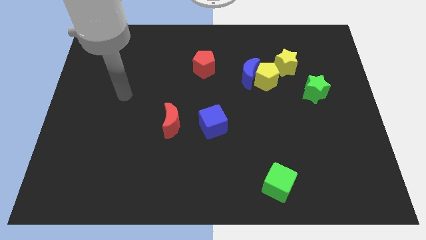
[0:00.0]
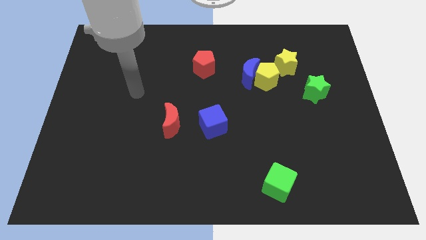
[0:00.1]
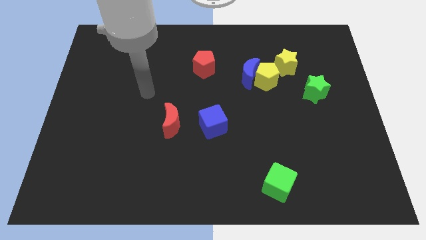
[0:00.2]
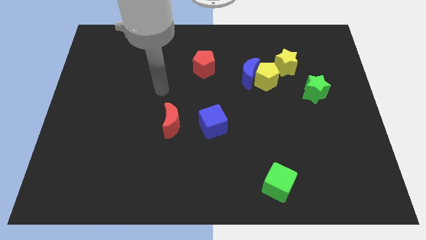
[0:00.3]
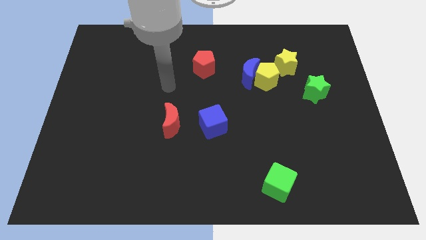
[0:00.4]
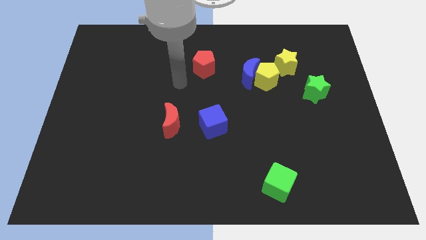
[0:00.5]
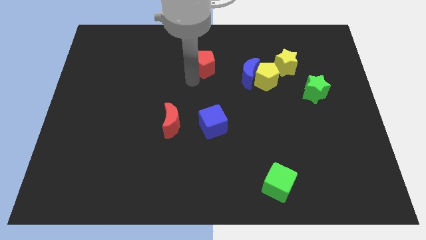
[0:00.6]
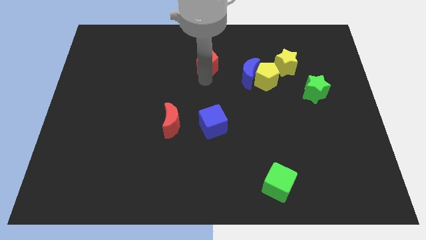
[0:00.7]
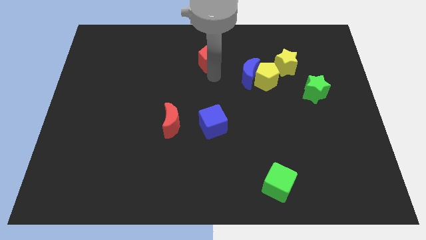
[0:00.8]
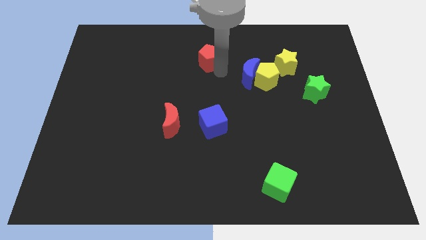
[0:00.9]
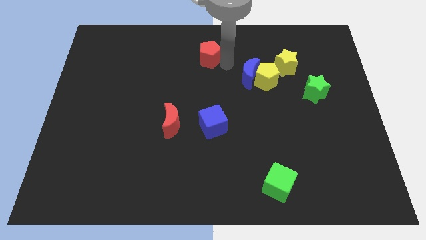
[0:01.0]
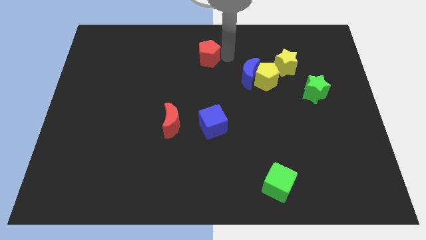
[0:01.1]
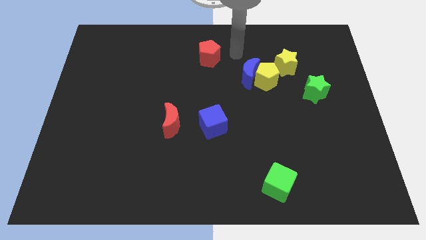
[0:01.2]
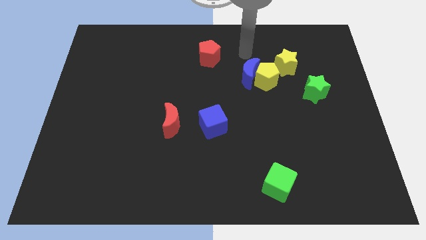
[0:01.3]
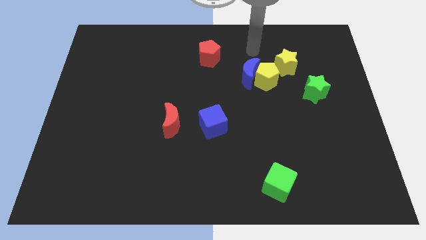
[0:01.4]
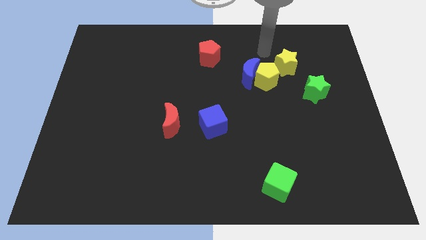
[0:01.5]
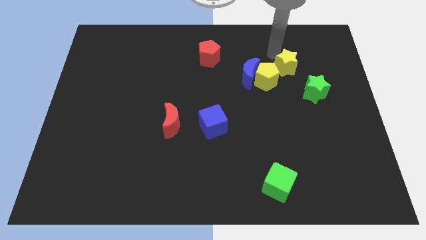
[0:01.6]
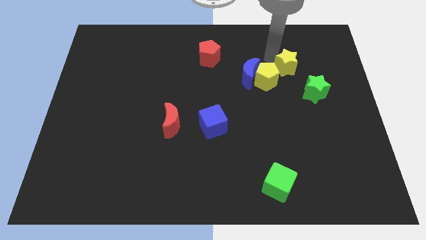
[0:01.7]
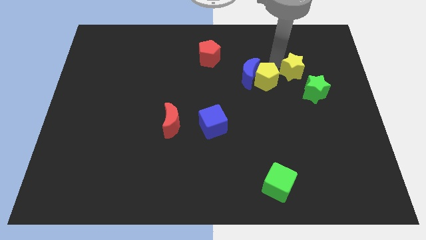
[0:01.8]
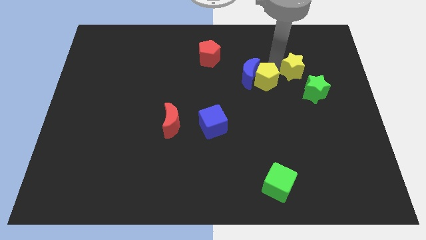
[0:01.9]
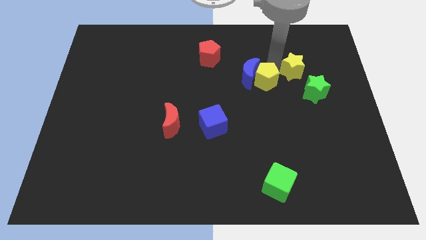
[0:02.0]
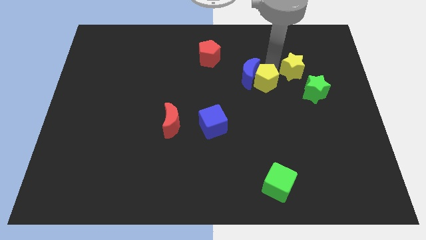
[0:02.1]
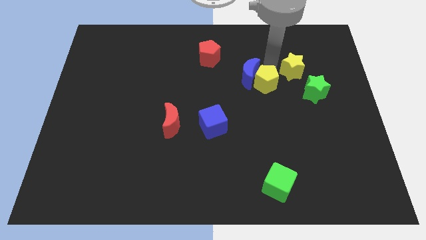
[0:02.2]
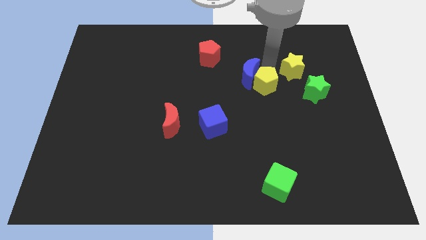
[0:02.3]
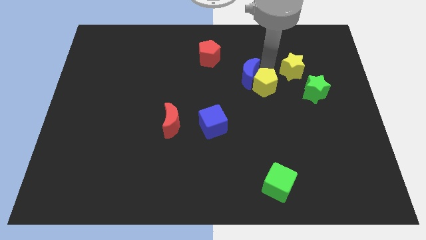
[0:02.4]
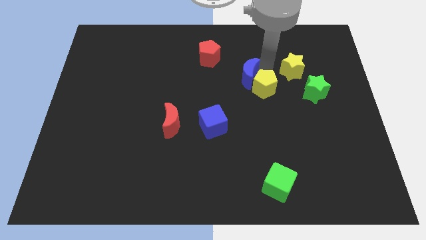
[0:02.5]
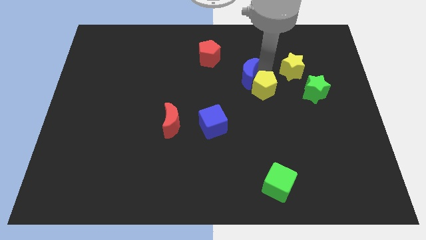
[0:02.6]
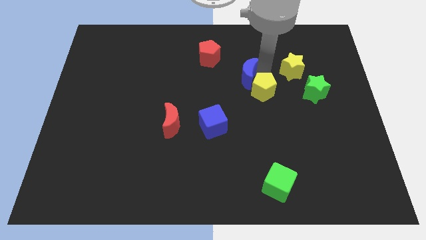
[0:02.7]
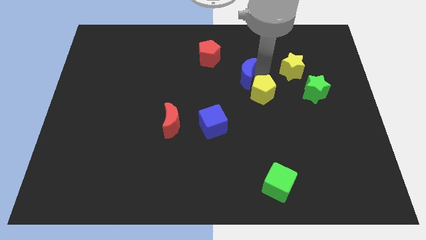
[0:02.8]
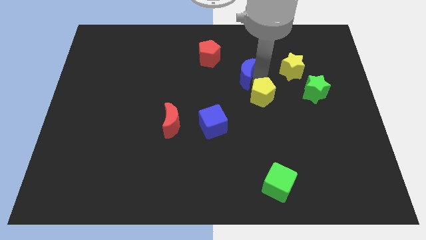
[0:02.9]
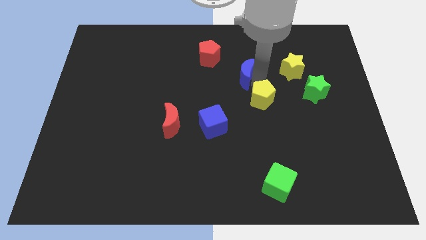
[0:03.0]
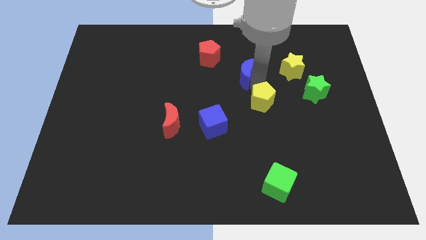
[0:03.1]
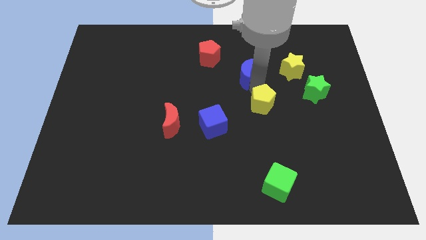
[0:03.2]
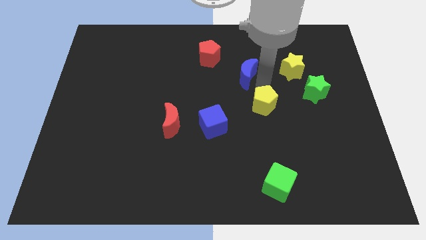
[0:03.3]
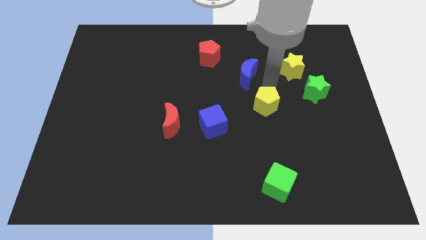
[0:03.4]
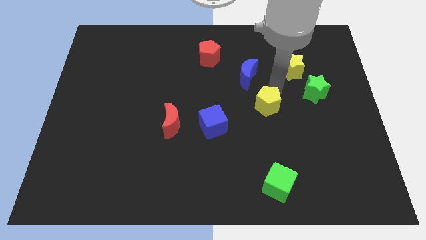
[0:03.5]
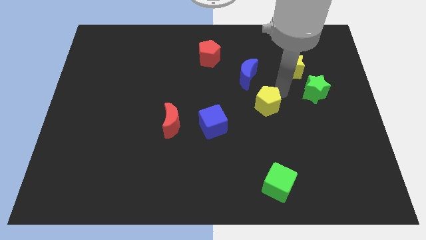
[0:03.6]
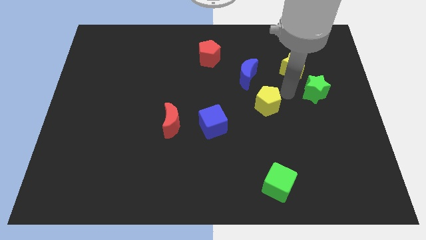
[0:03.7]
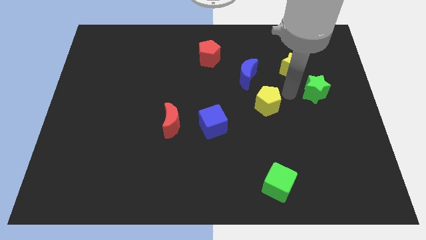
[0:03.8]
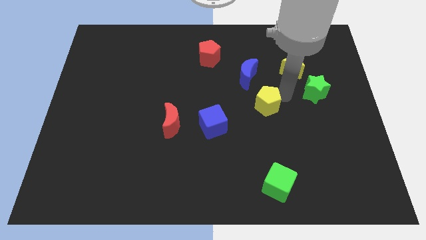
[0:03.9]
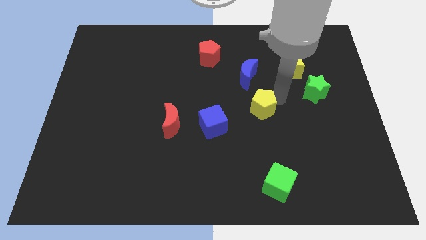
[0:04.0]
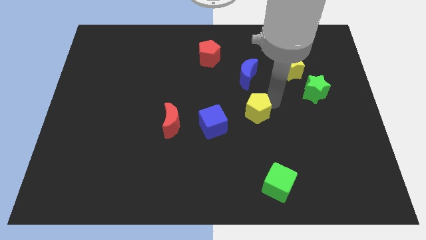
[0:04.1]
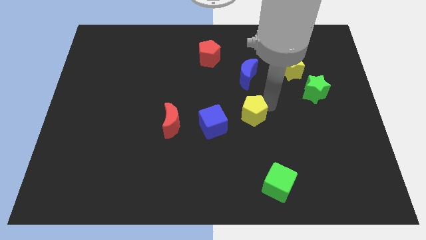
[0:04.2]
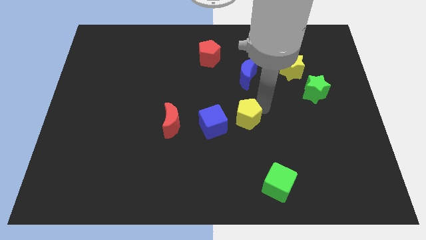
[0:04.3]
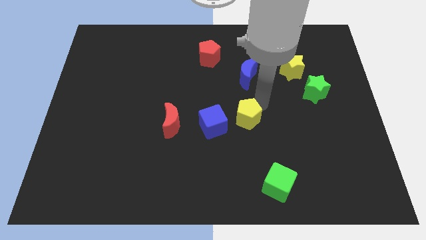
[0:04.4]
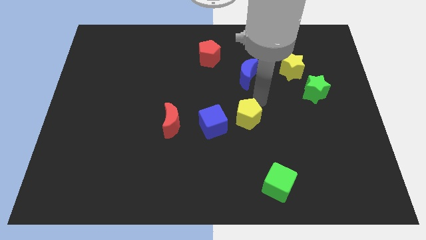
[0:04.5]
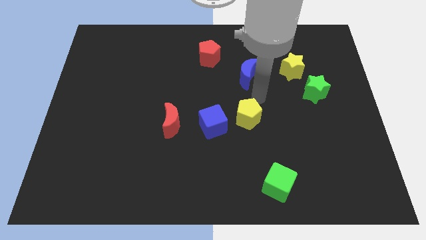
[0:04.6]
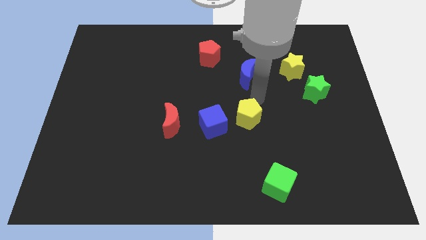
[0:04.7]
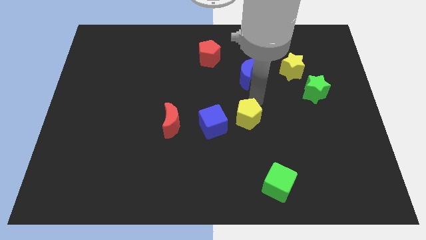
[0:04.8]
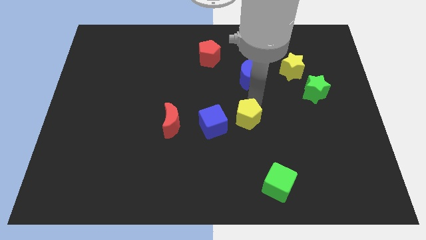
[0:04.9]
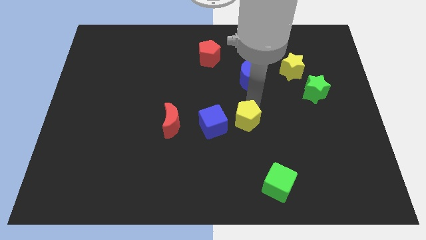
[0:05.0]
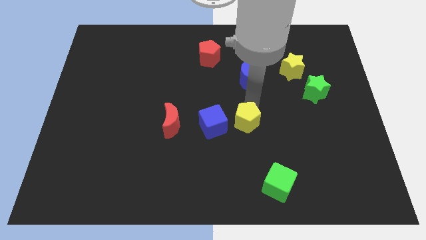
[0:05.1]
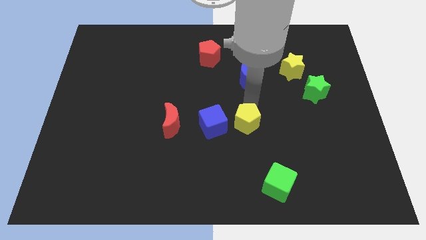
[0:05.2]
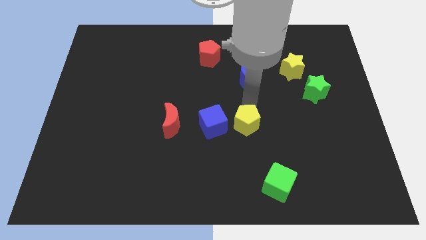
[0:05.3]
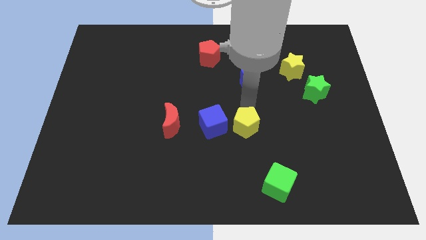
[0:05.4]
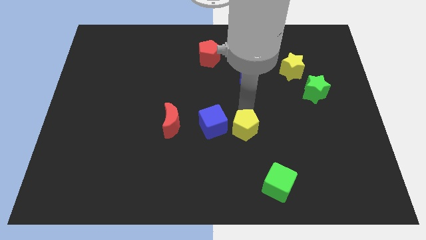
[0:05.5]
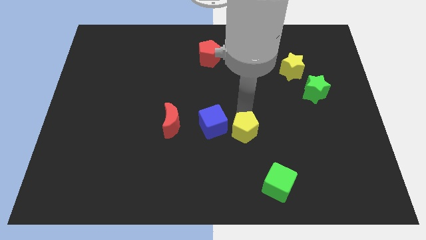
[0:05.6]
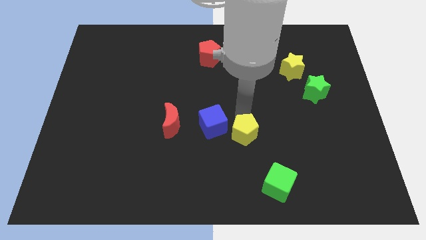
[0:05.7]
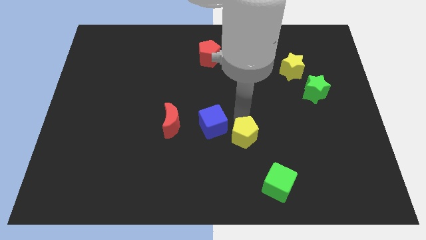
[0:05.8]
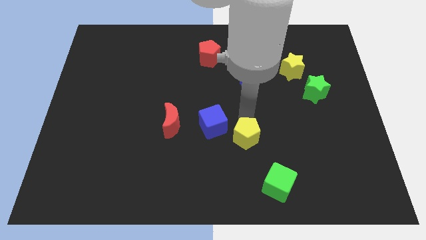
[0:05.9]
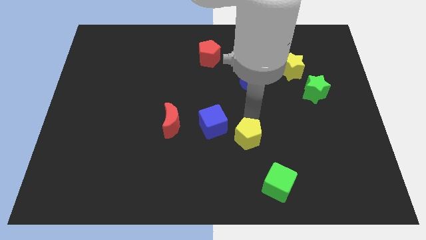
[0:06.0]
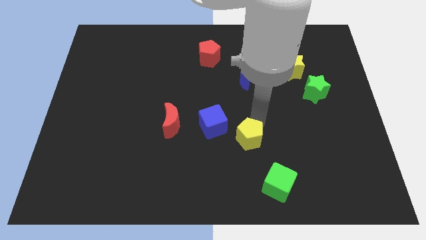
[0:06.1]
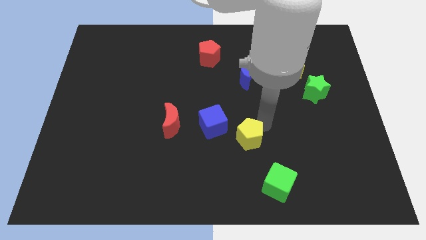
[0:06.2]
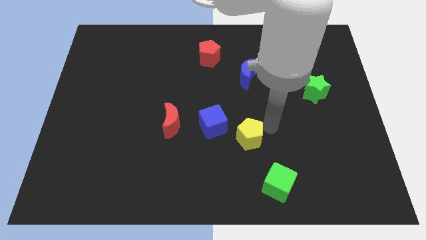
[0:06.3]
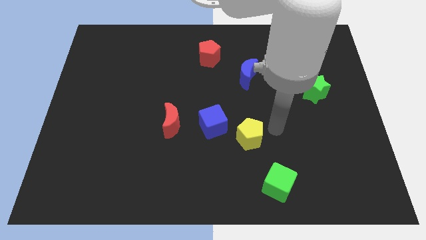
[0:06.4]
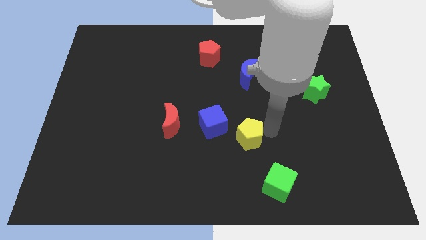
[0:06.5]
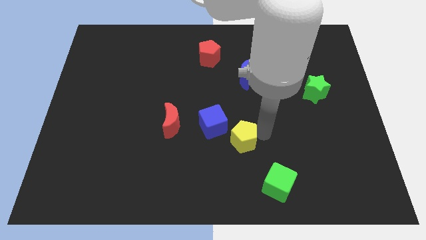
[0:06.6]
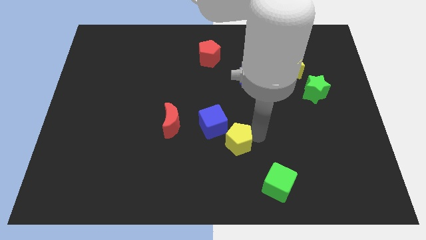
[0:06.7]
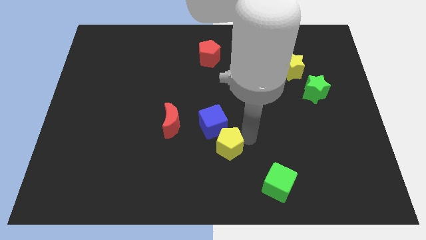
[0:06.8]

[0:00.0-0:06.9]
put the yellow pentagon below the blue cube
